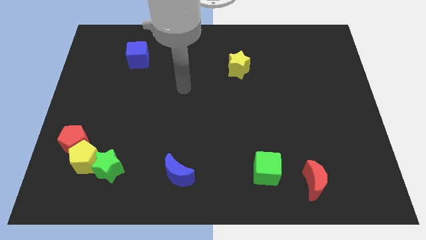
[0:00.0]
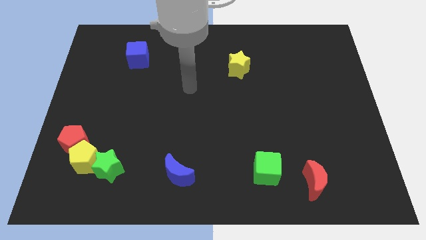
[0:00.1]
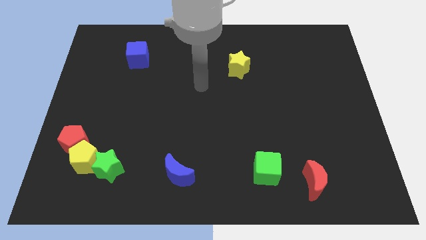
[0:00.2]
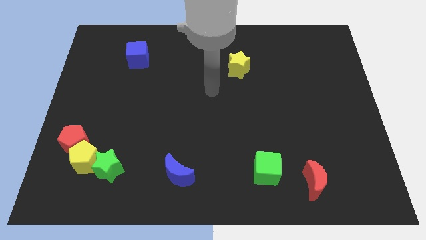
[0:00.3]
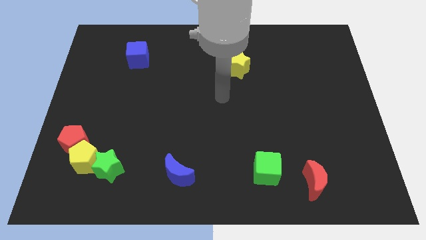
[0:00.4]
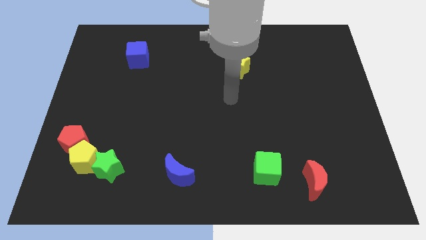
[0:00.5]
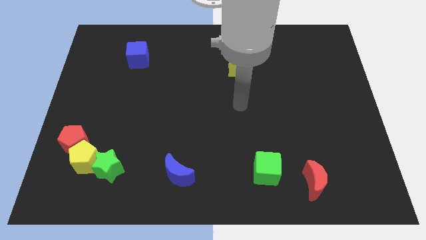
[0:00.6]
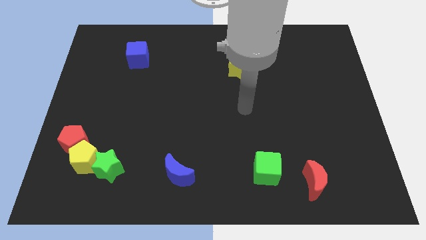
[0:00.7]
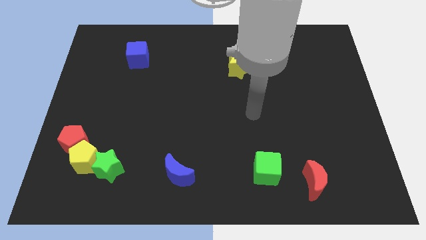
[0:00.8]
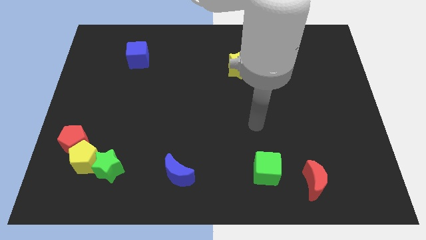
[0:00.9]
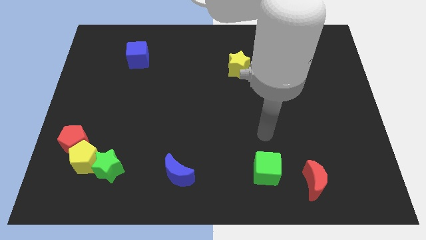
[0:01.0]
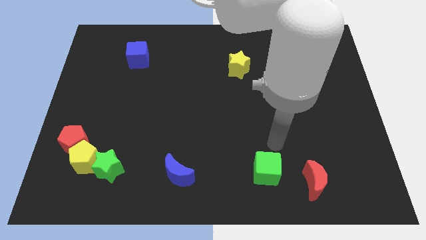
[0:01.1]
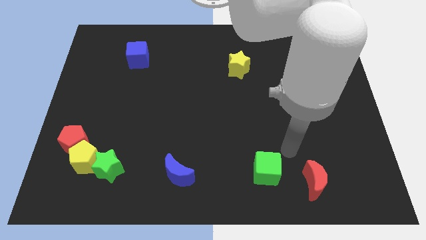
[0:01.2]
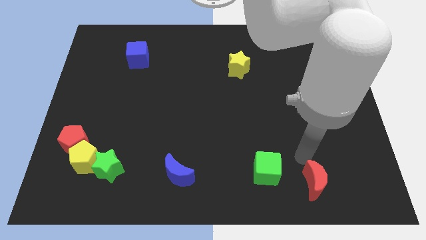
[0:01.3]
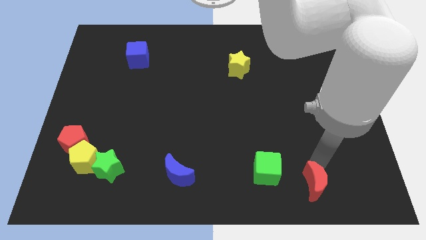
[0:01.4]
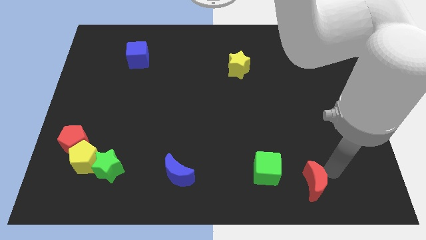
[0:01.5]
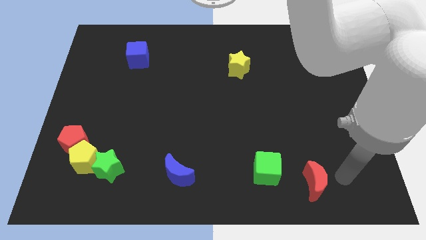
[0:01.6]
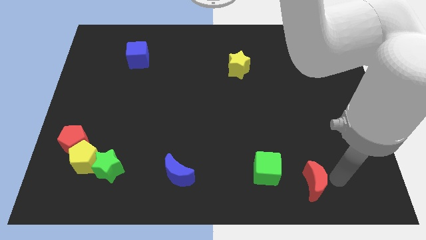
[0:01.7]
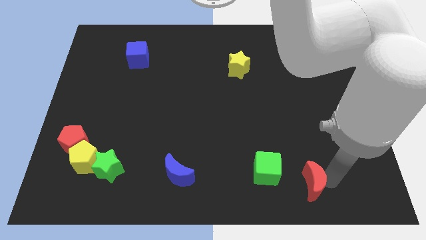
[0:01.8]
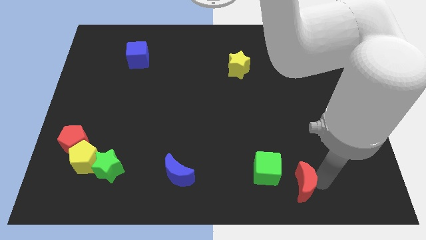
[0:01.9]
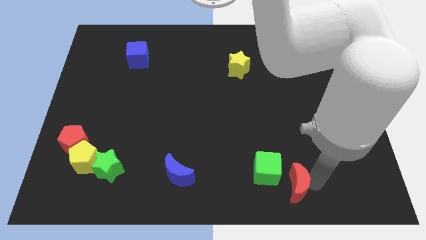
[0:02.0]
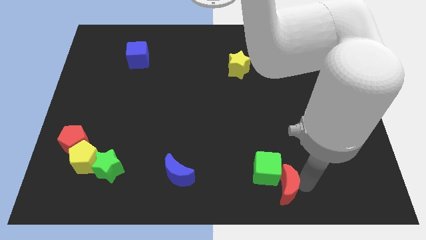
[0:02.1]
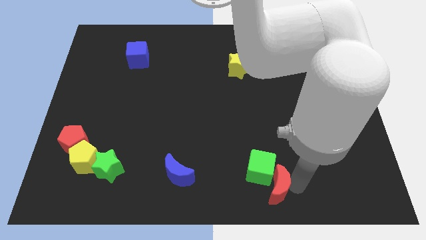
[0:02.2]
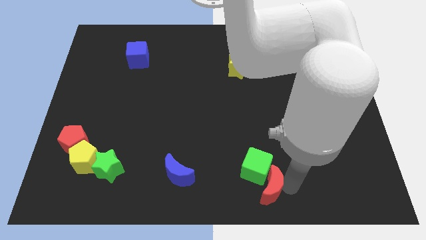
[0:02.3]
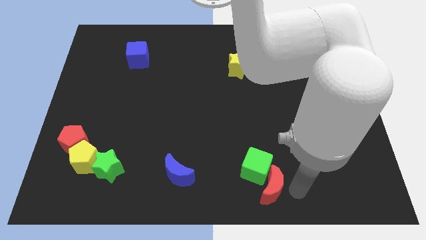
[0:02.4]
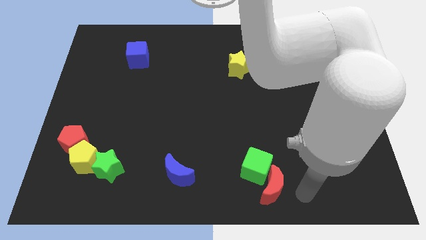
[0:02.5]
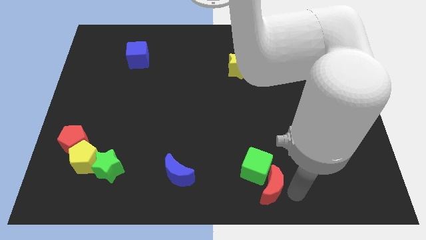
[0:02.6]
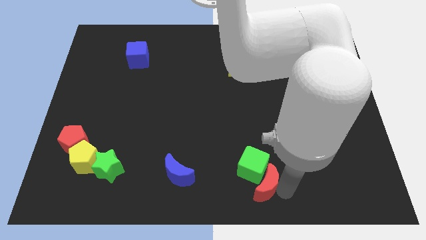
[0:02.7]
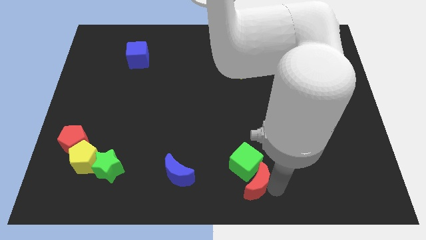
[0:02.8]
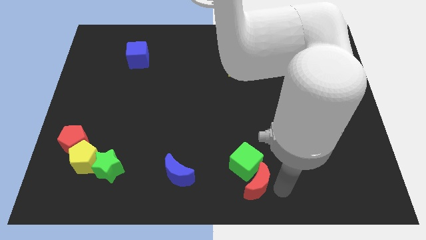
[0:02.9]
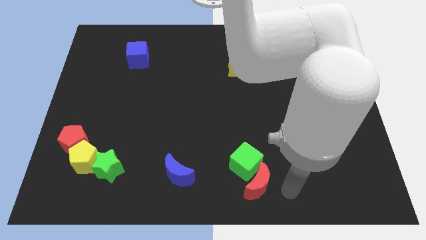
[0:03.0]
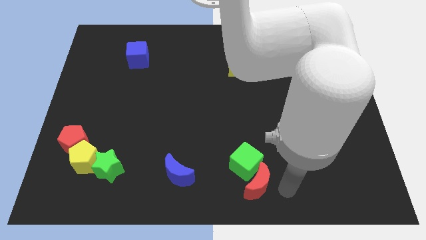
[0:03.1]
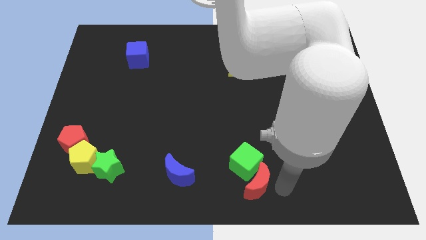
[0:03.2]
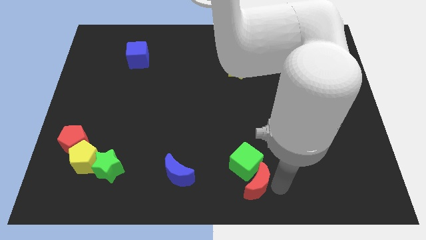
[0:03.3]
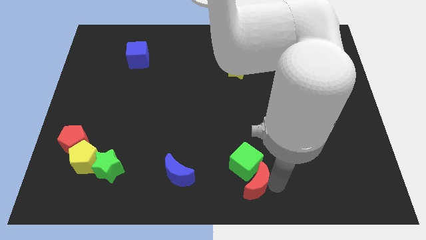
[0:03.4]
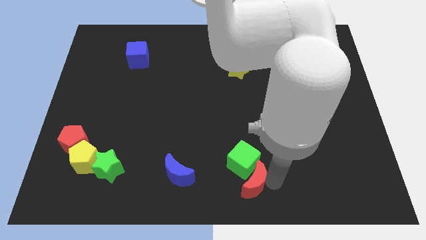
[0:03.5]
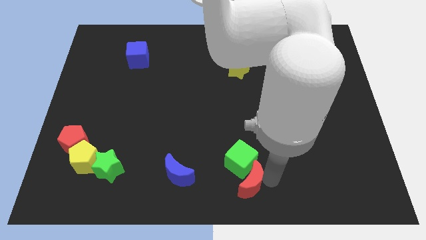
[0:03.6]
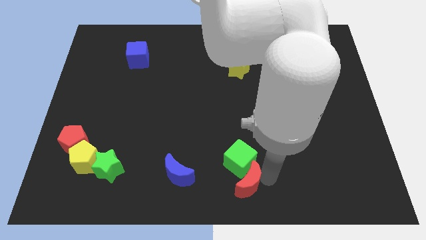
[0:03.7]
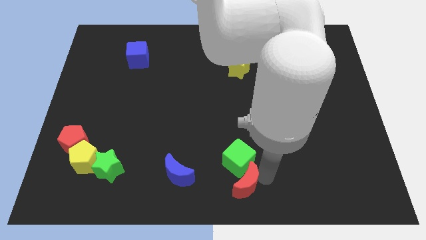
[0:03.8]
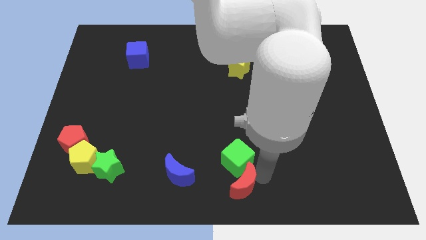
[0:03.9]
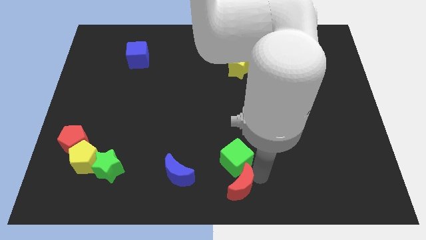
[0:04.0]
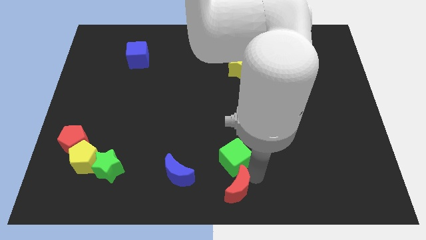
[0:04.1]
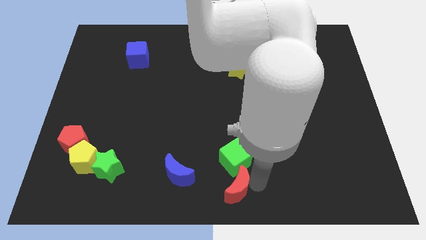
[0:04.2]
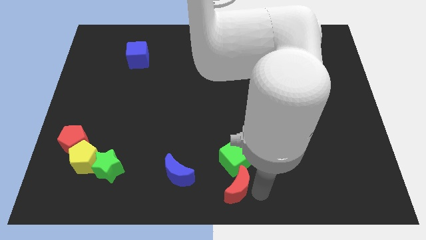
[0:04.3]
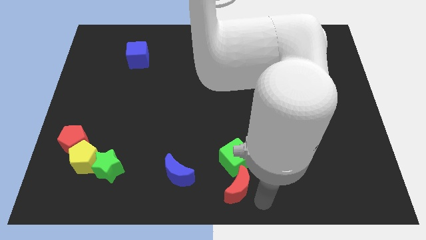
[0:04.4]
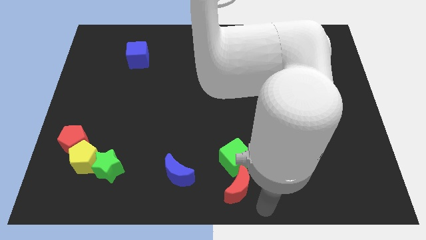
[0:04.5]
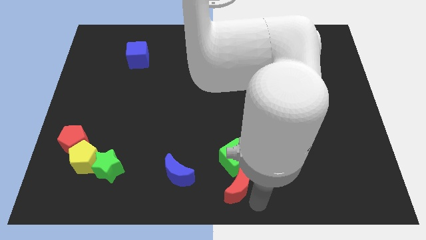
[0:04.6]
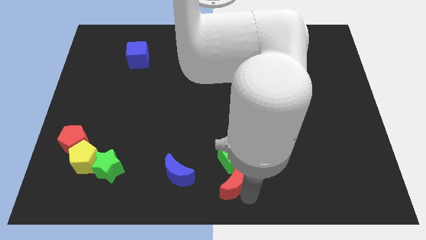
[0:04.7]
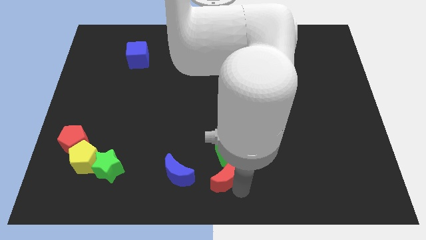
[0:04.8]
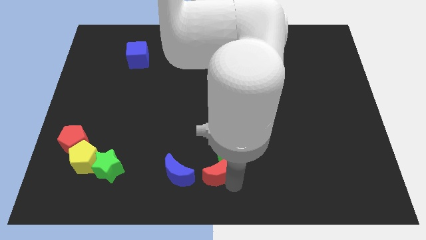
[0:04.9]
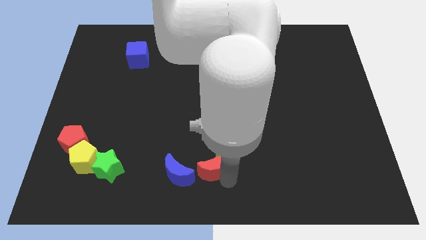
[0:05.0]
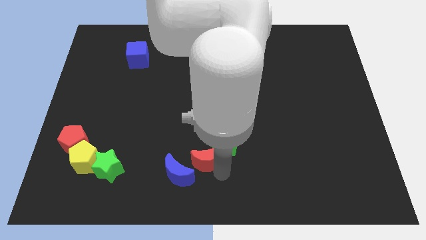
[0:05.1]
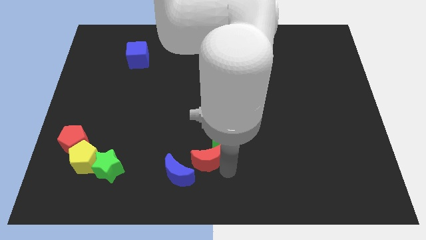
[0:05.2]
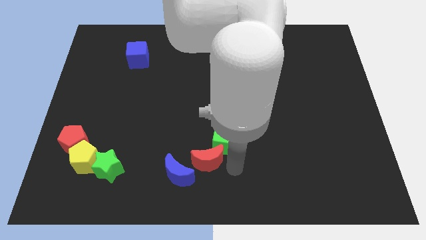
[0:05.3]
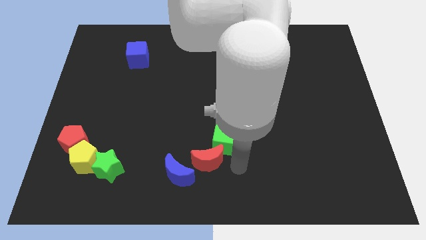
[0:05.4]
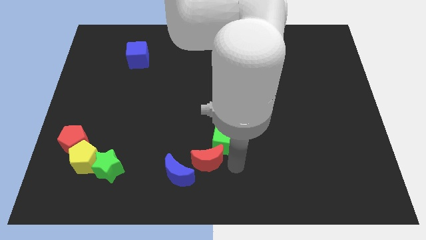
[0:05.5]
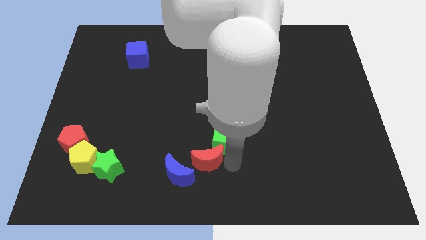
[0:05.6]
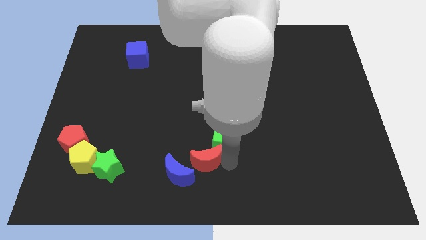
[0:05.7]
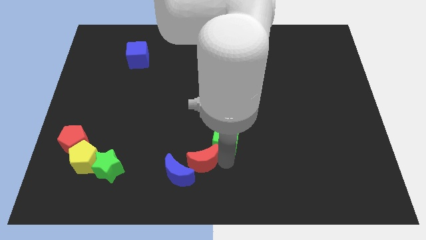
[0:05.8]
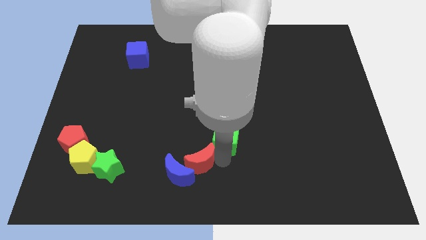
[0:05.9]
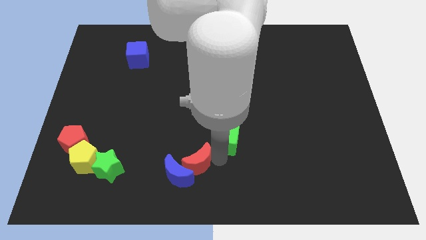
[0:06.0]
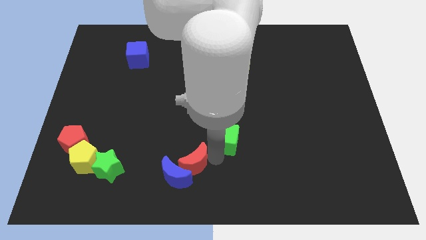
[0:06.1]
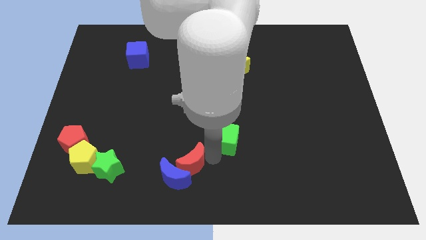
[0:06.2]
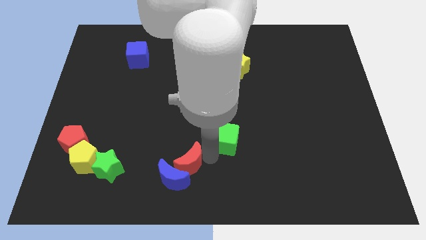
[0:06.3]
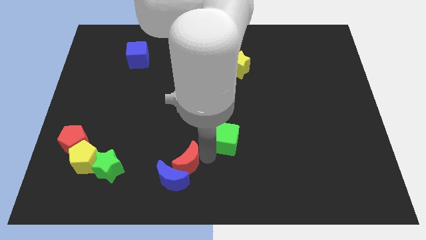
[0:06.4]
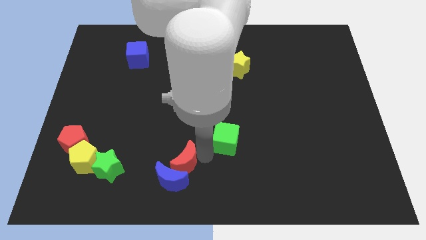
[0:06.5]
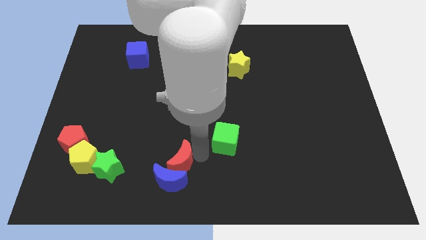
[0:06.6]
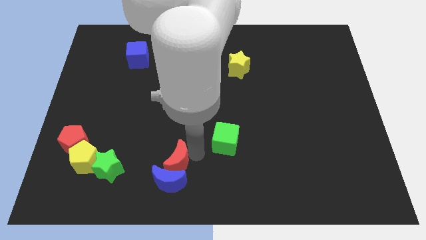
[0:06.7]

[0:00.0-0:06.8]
slide the red moon to the top left of the blue moon

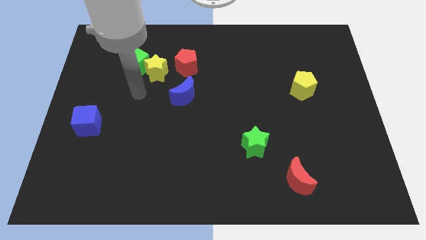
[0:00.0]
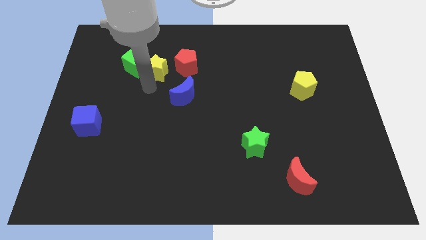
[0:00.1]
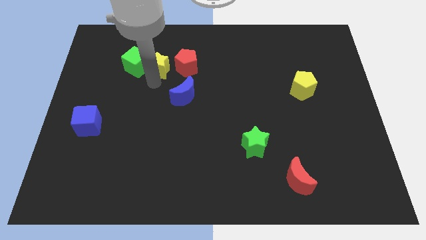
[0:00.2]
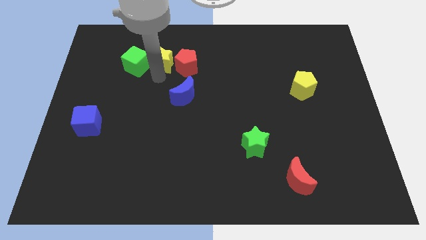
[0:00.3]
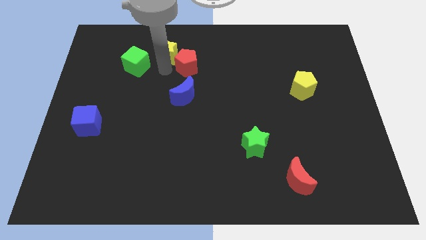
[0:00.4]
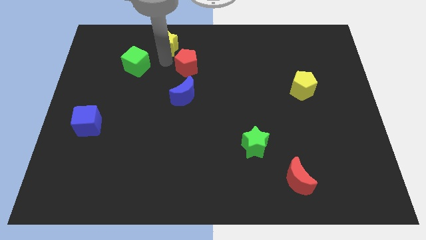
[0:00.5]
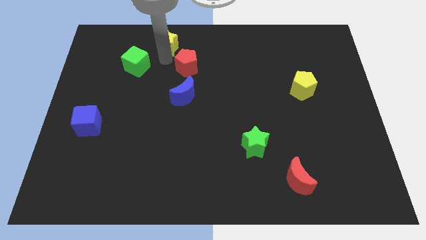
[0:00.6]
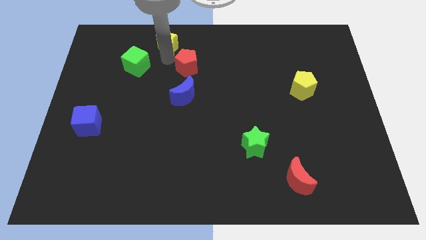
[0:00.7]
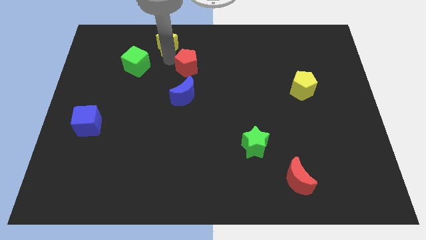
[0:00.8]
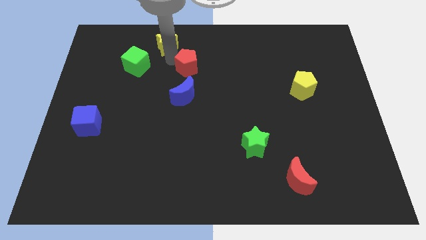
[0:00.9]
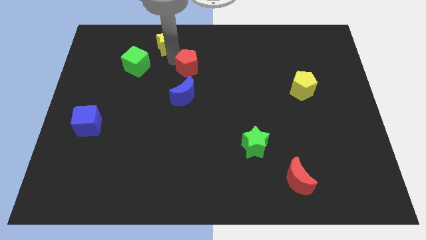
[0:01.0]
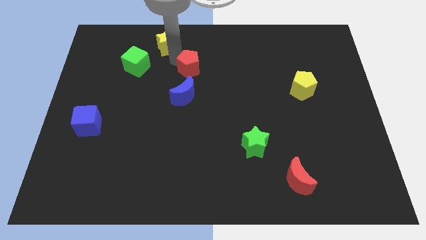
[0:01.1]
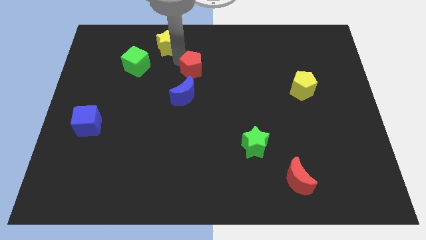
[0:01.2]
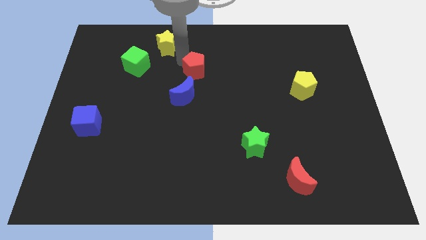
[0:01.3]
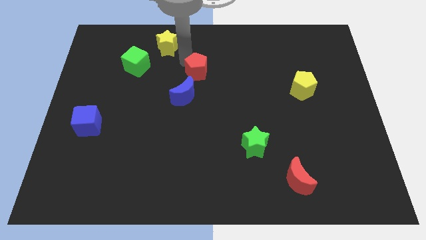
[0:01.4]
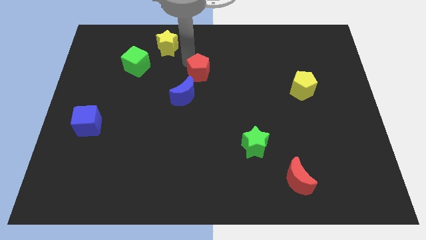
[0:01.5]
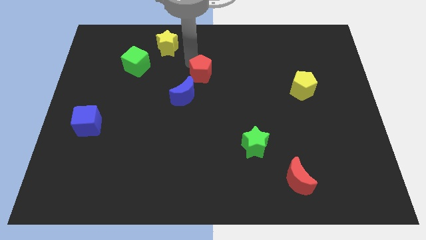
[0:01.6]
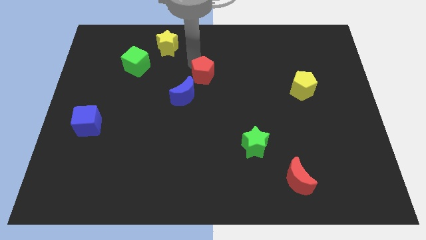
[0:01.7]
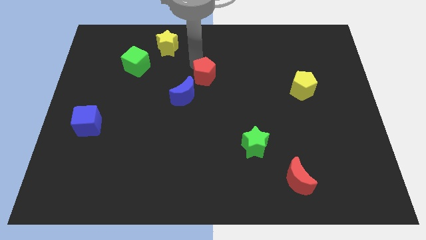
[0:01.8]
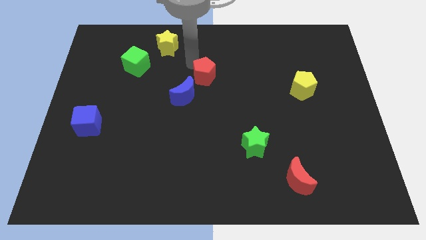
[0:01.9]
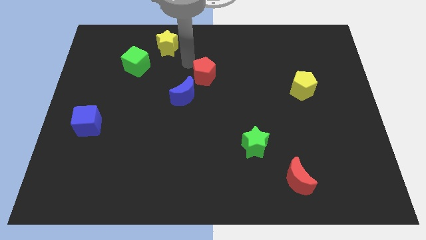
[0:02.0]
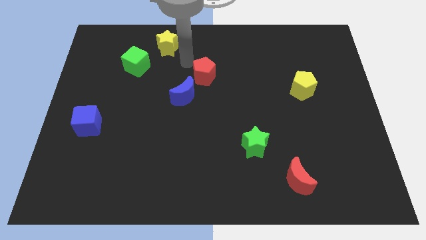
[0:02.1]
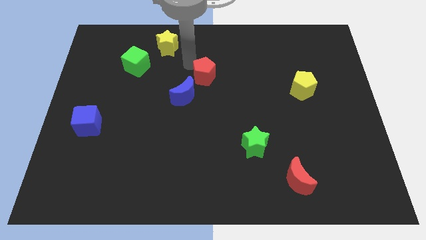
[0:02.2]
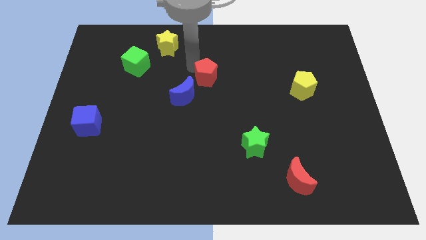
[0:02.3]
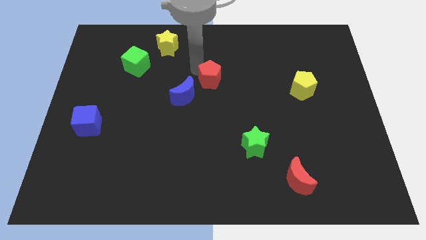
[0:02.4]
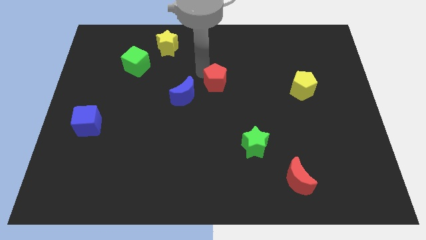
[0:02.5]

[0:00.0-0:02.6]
move the red pentagon to the right of the blue moon
